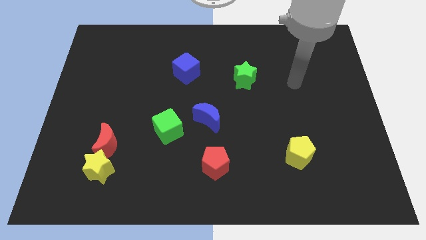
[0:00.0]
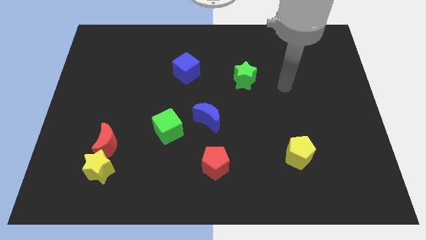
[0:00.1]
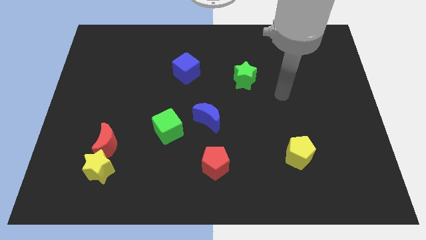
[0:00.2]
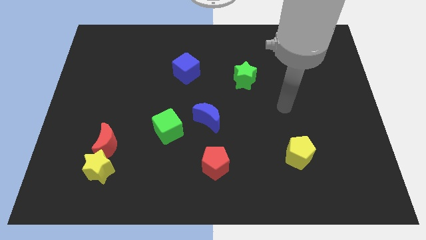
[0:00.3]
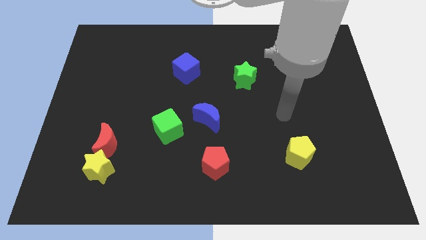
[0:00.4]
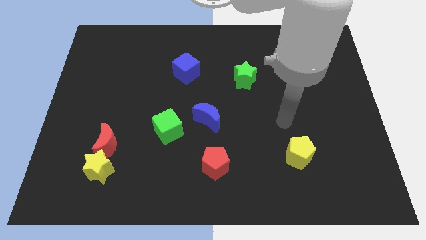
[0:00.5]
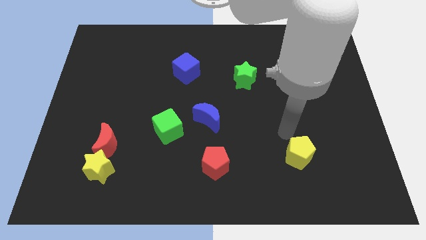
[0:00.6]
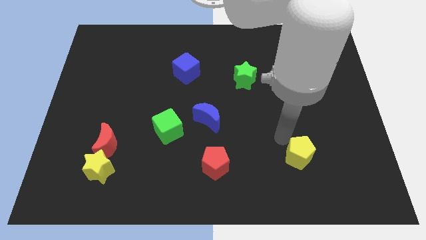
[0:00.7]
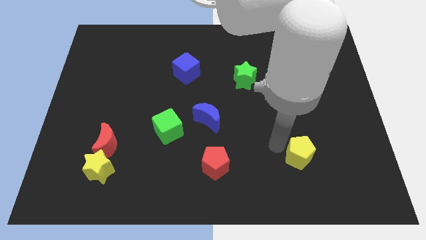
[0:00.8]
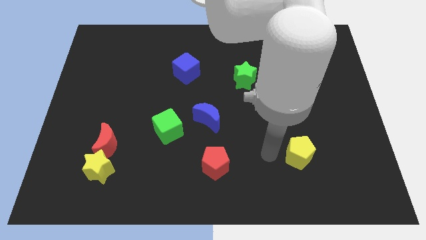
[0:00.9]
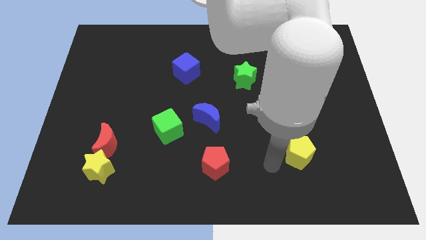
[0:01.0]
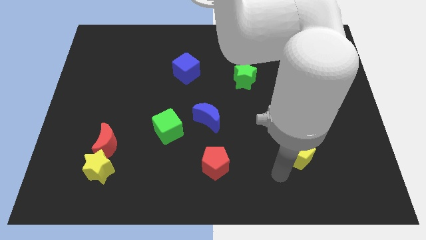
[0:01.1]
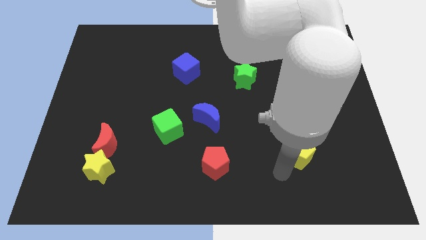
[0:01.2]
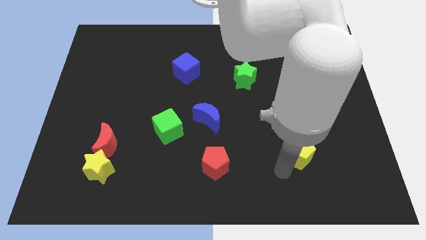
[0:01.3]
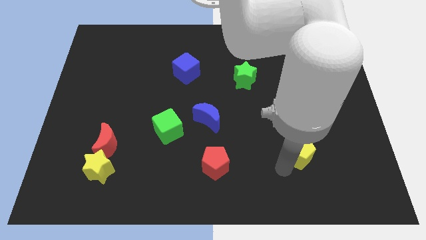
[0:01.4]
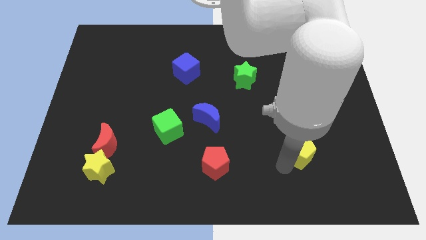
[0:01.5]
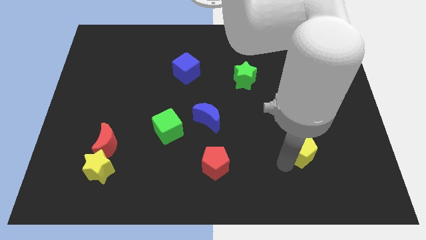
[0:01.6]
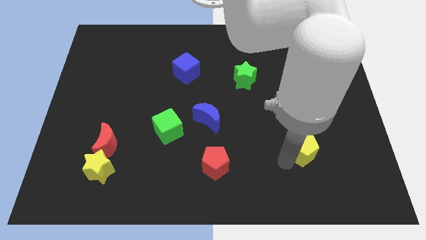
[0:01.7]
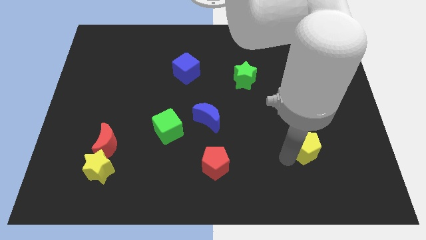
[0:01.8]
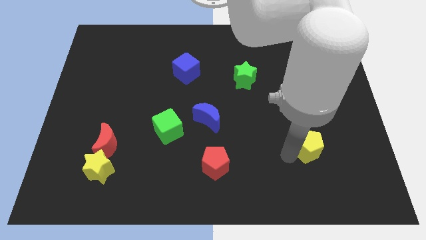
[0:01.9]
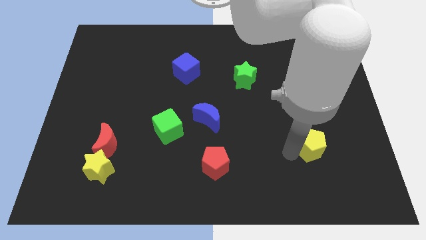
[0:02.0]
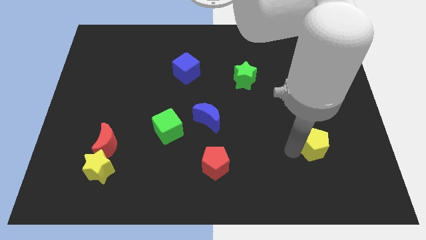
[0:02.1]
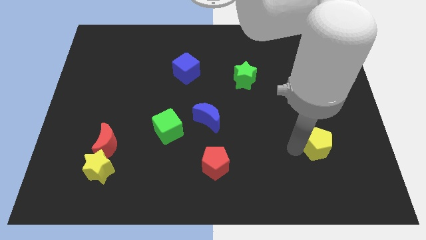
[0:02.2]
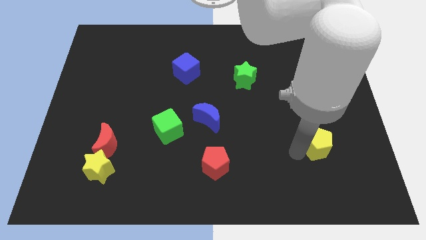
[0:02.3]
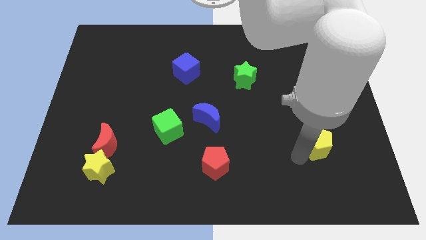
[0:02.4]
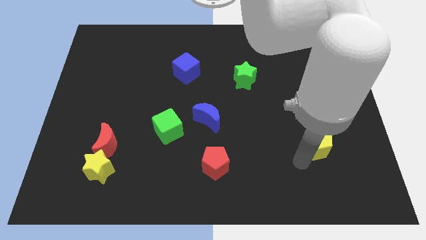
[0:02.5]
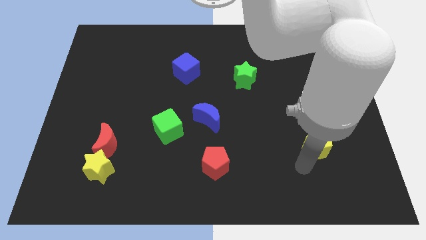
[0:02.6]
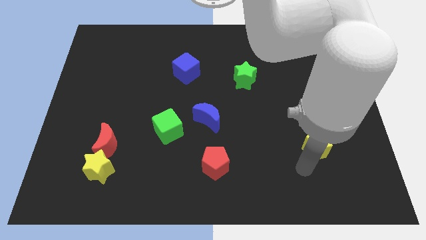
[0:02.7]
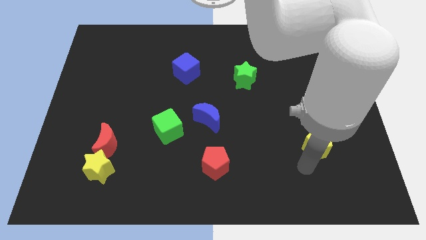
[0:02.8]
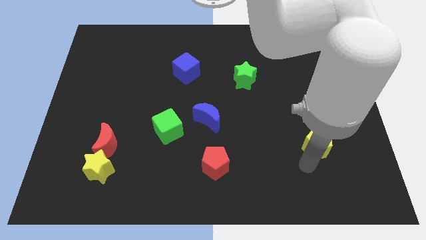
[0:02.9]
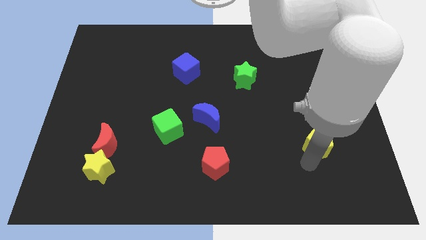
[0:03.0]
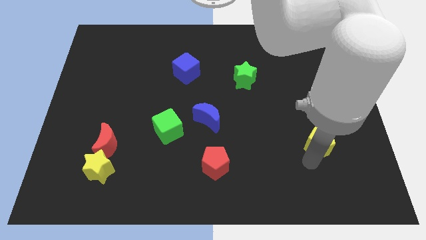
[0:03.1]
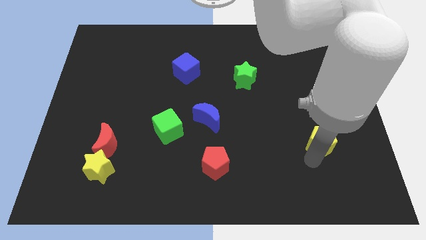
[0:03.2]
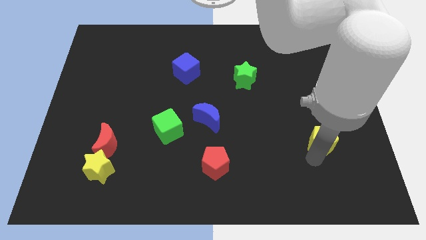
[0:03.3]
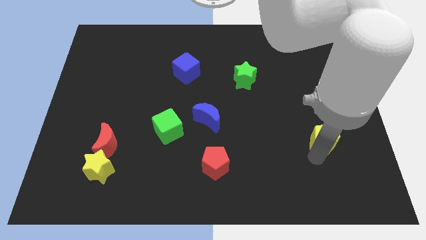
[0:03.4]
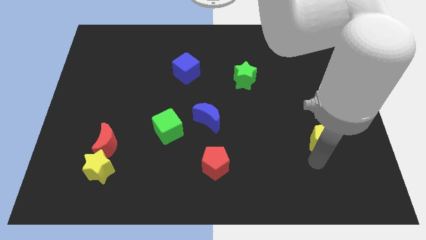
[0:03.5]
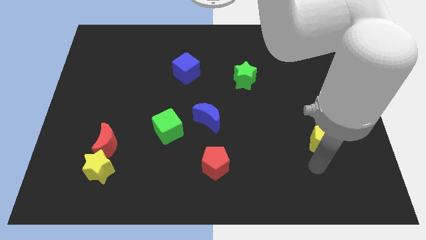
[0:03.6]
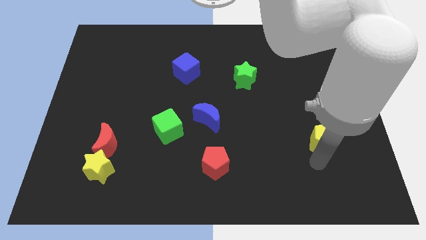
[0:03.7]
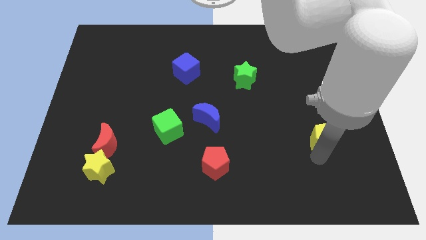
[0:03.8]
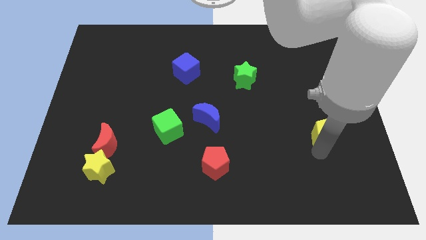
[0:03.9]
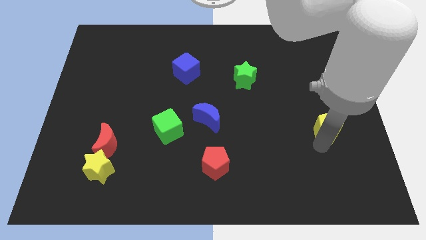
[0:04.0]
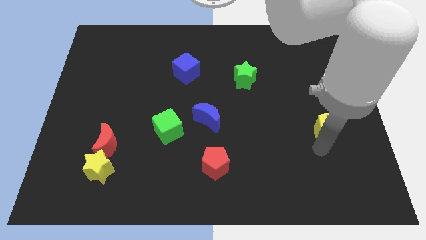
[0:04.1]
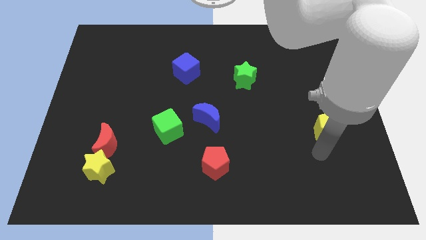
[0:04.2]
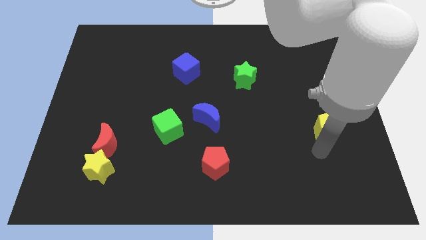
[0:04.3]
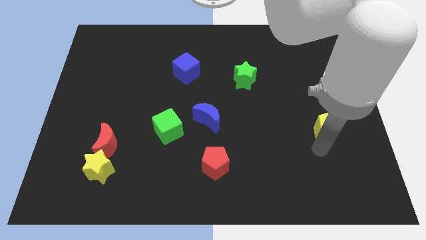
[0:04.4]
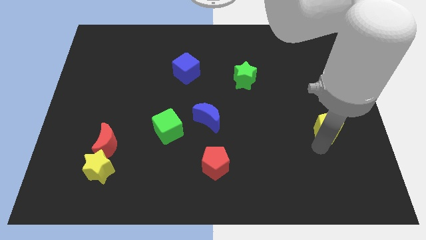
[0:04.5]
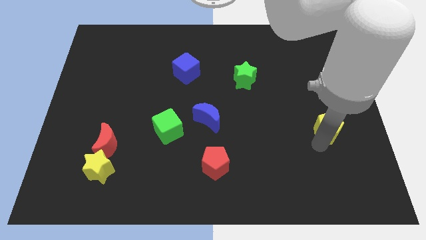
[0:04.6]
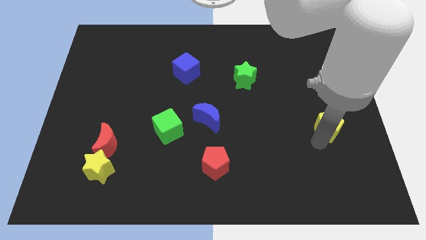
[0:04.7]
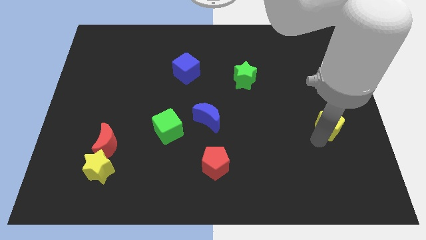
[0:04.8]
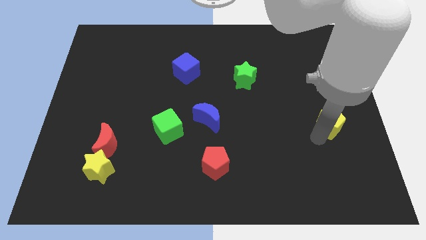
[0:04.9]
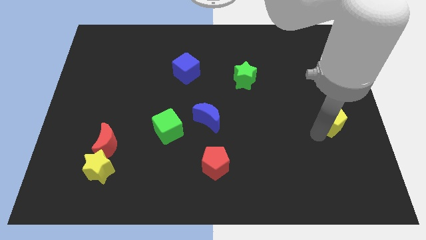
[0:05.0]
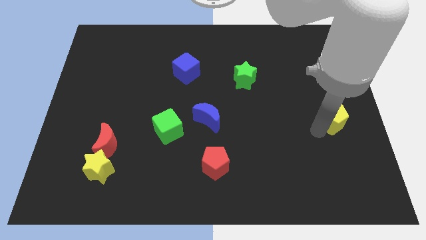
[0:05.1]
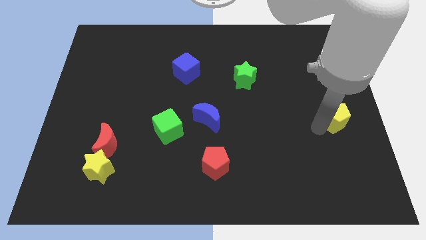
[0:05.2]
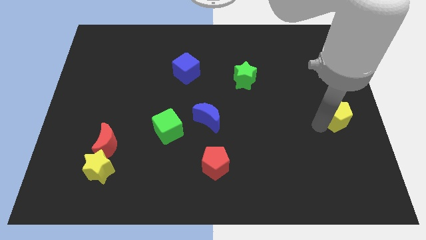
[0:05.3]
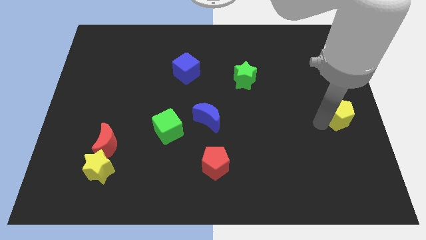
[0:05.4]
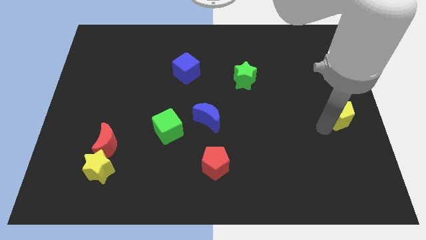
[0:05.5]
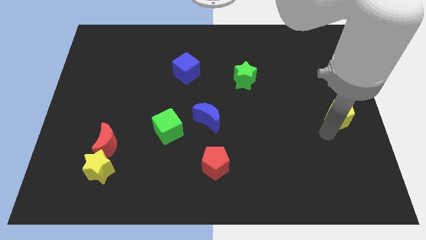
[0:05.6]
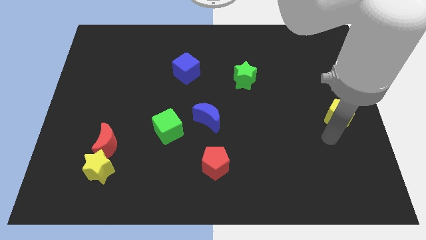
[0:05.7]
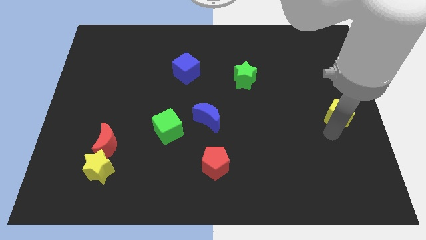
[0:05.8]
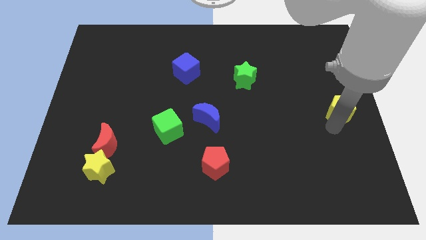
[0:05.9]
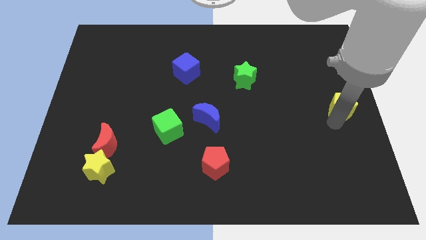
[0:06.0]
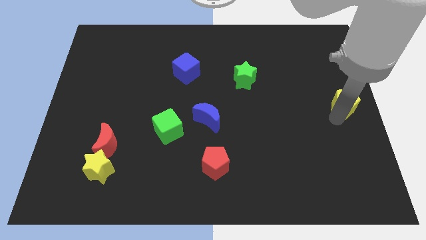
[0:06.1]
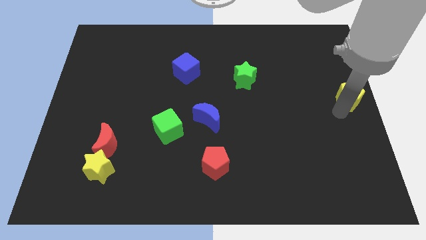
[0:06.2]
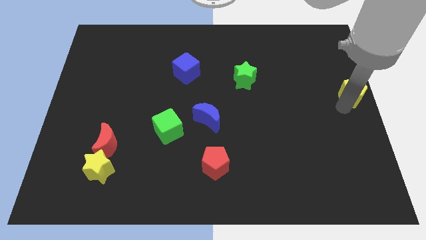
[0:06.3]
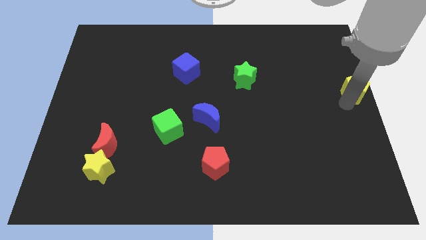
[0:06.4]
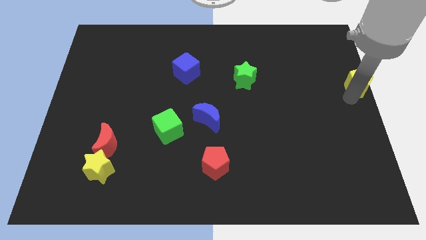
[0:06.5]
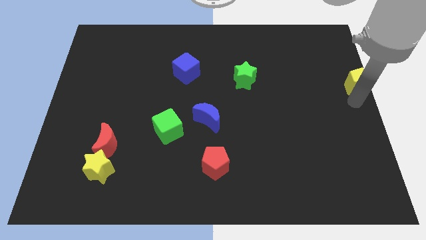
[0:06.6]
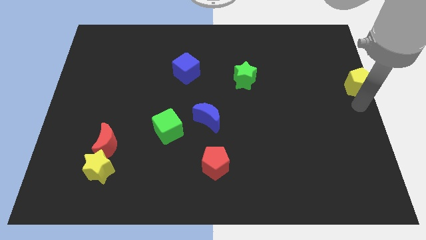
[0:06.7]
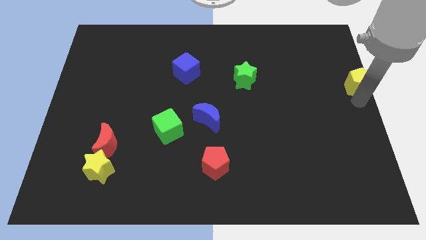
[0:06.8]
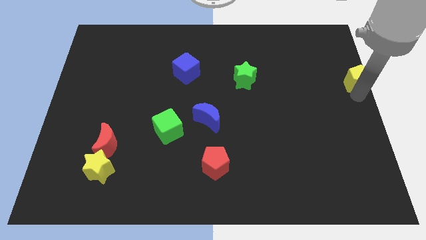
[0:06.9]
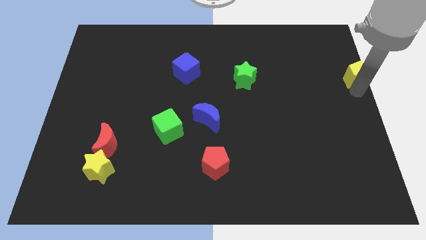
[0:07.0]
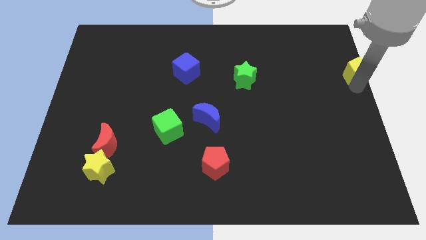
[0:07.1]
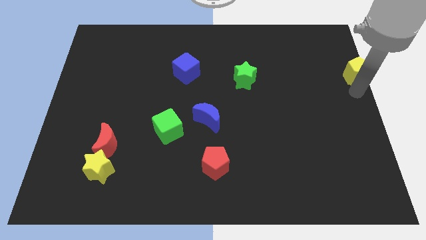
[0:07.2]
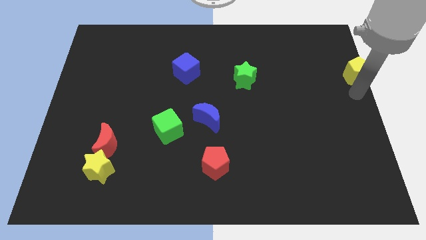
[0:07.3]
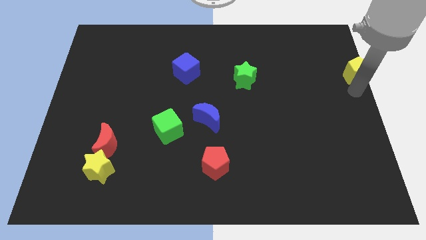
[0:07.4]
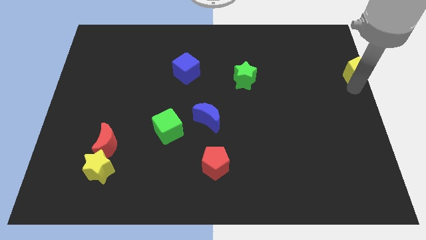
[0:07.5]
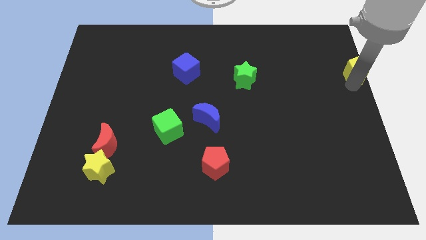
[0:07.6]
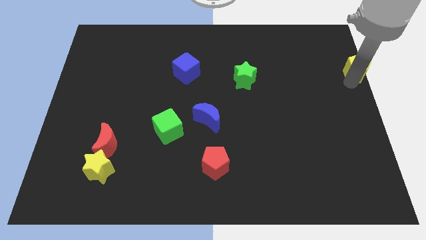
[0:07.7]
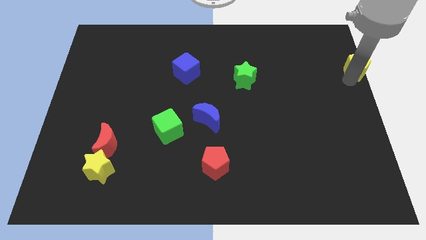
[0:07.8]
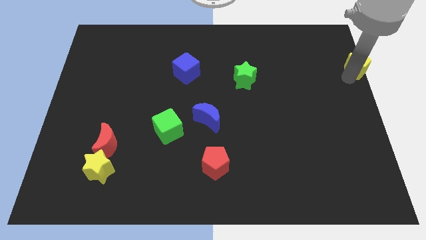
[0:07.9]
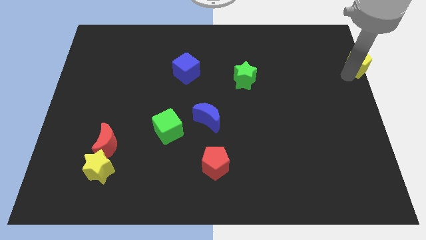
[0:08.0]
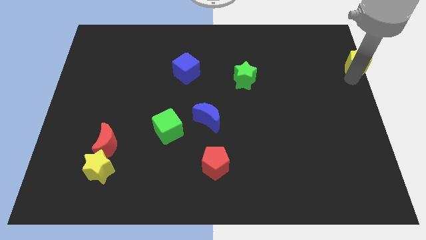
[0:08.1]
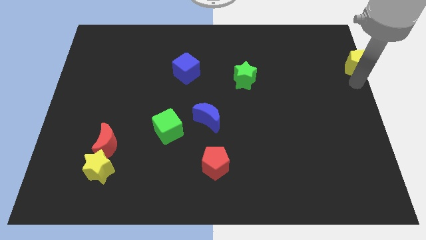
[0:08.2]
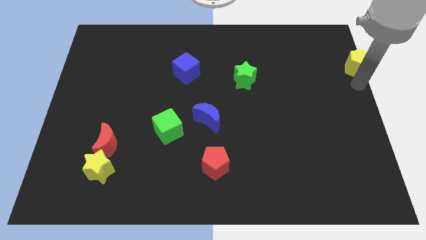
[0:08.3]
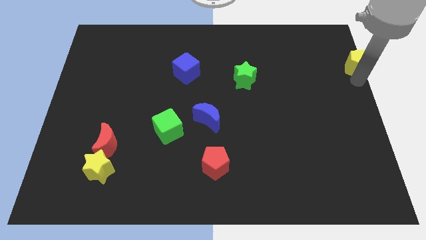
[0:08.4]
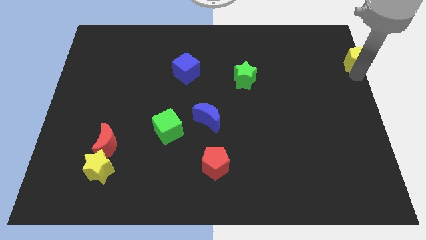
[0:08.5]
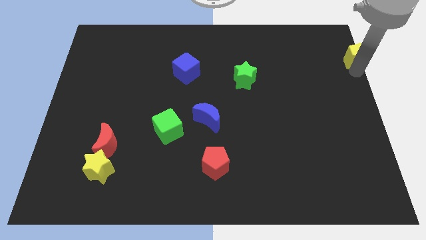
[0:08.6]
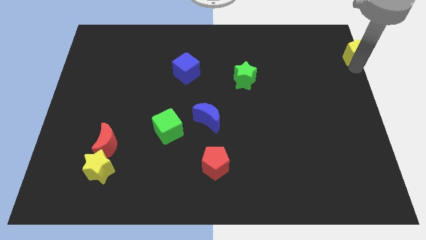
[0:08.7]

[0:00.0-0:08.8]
move the yellow pentagon to the upper right corner
